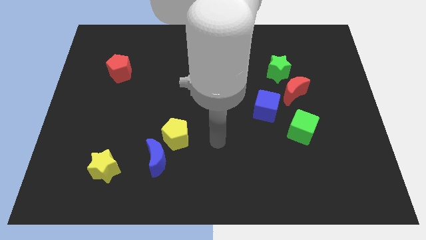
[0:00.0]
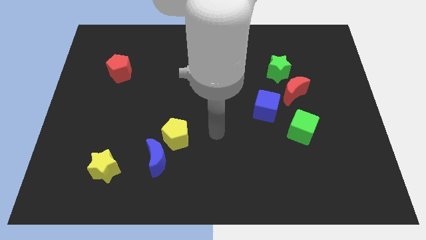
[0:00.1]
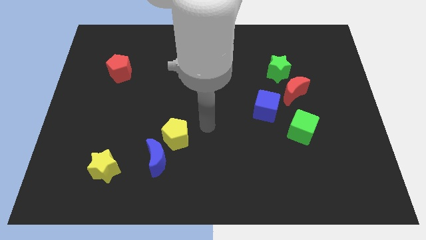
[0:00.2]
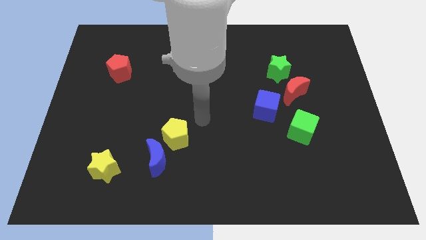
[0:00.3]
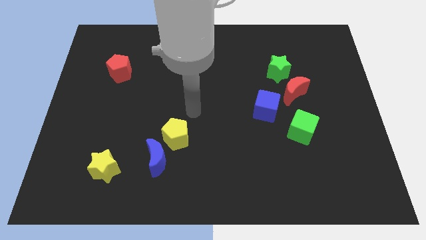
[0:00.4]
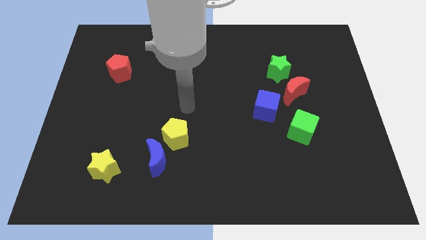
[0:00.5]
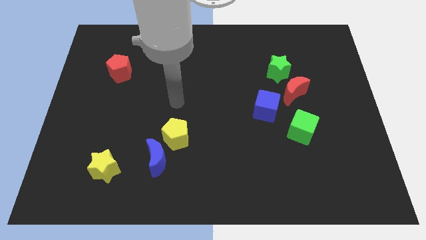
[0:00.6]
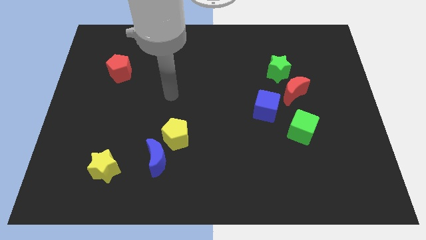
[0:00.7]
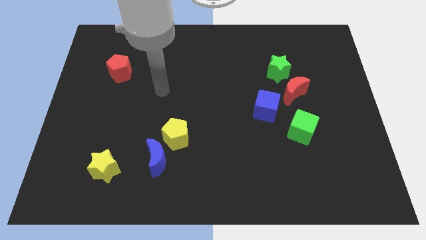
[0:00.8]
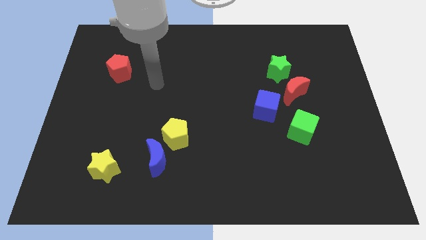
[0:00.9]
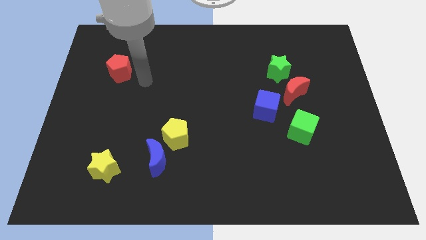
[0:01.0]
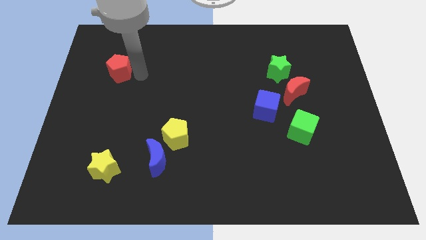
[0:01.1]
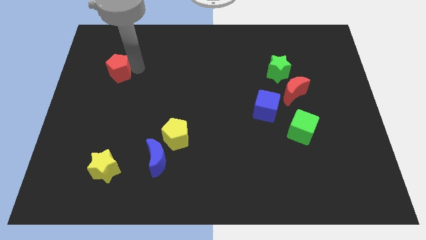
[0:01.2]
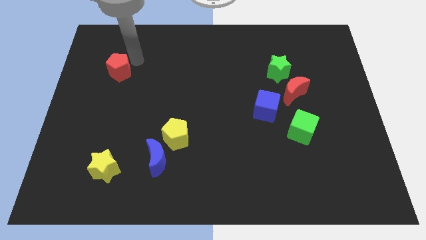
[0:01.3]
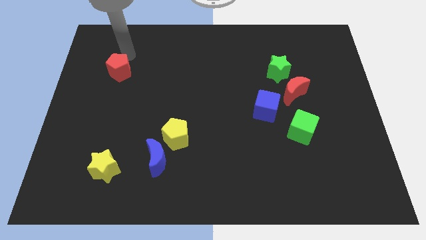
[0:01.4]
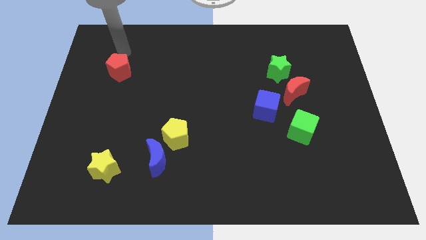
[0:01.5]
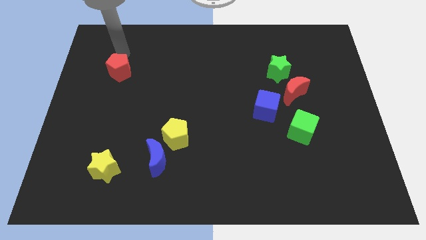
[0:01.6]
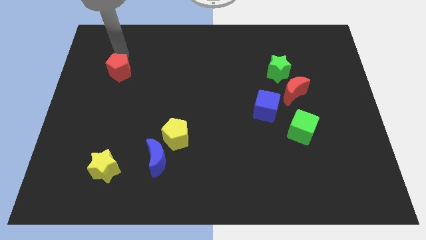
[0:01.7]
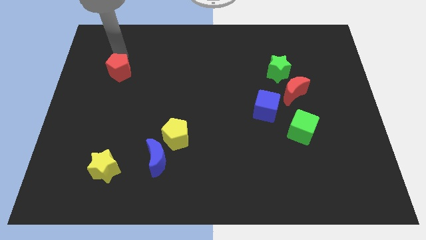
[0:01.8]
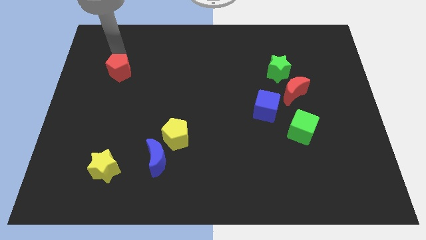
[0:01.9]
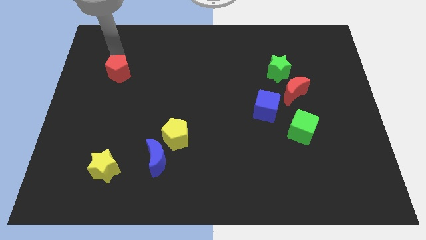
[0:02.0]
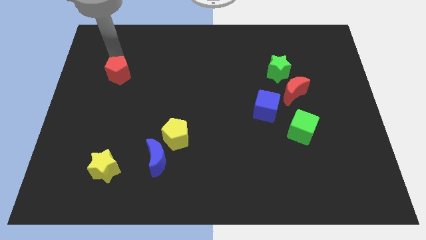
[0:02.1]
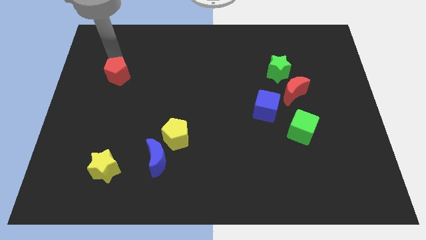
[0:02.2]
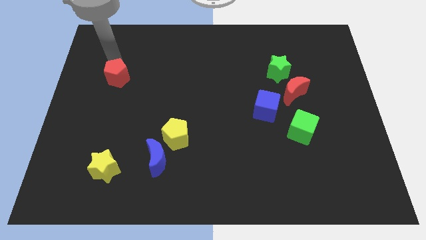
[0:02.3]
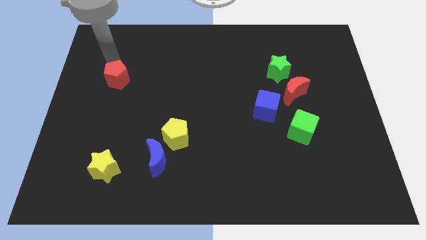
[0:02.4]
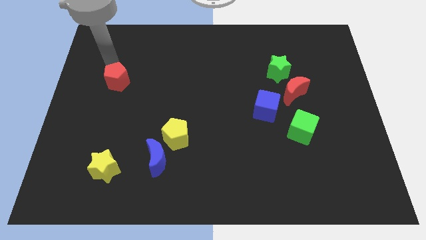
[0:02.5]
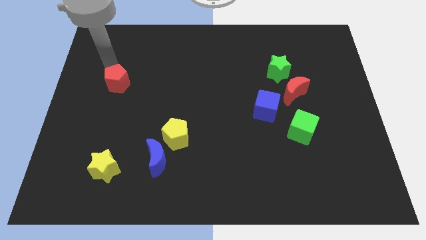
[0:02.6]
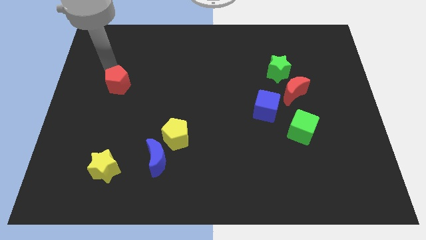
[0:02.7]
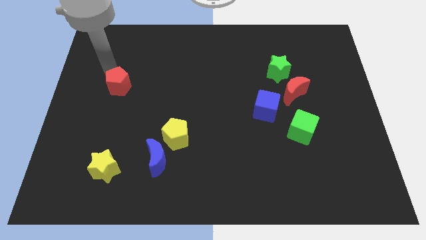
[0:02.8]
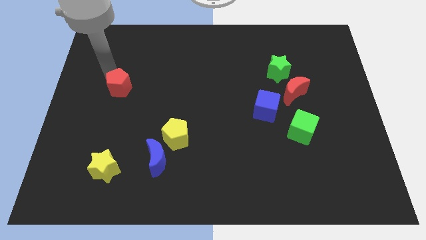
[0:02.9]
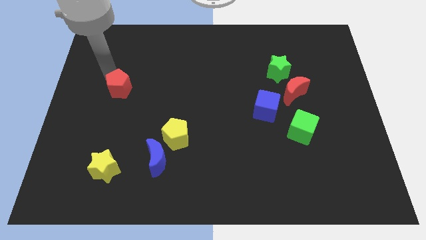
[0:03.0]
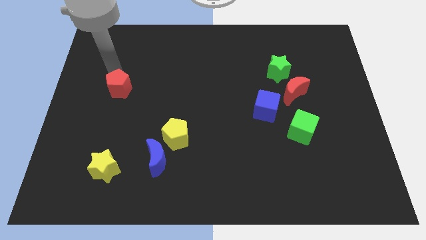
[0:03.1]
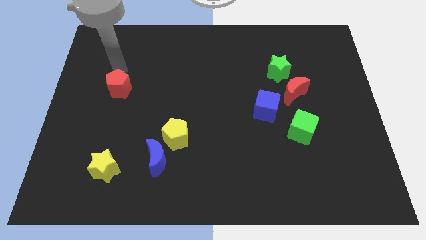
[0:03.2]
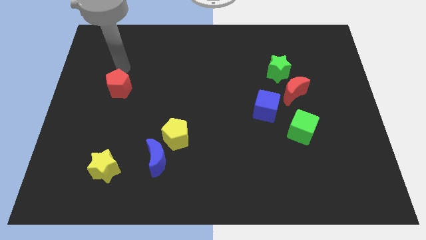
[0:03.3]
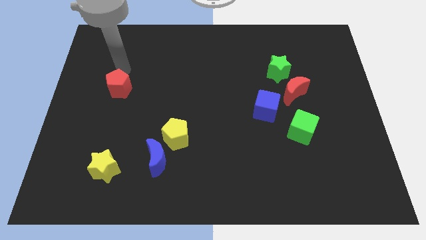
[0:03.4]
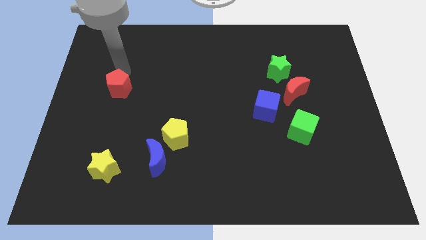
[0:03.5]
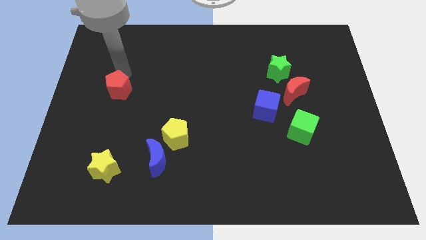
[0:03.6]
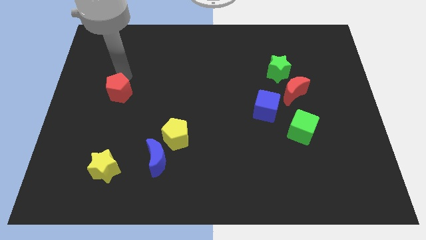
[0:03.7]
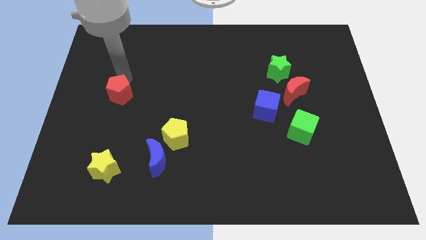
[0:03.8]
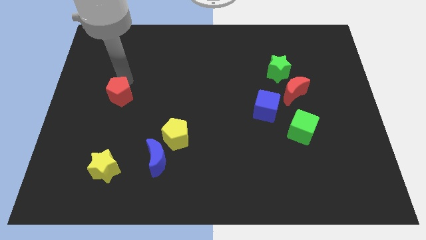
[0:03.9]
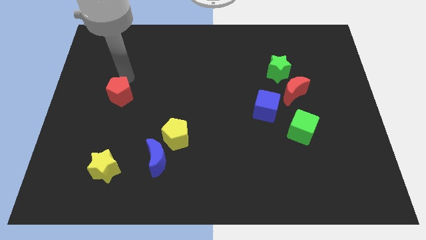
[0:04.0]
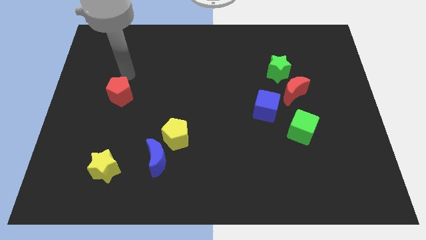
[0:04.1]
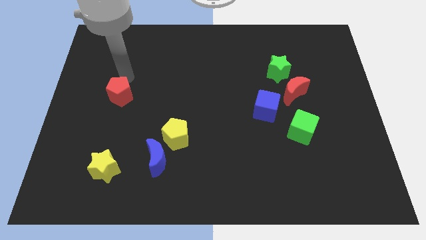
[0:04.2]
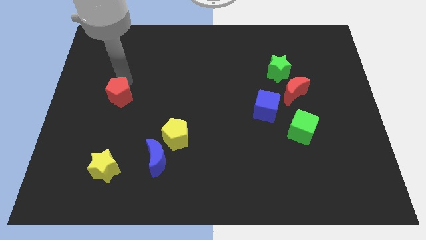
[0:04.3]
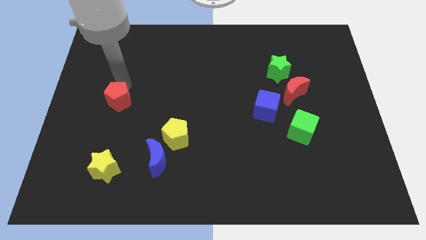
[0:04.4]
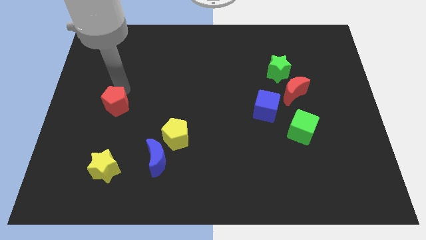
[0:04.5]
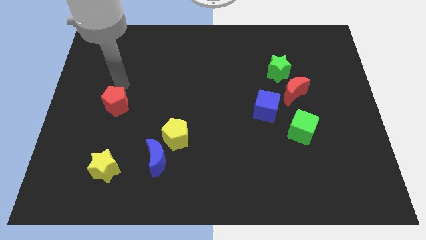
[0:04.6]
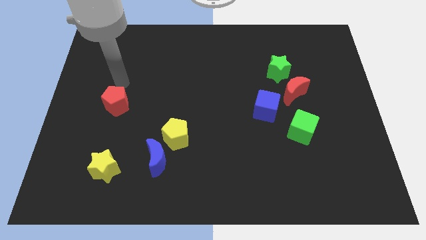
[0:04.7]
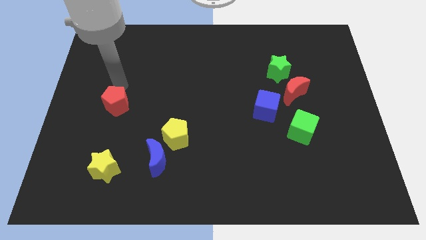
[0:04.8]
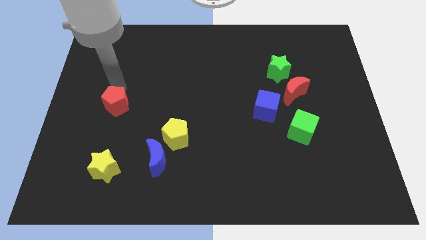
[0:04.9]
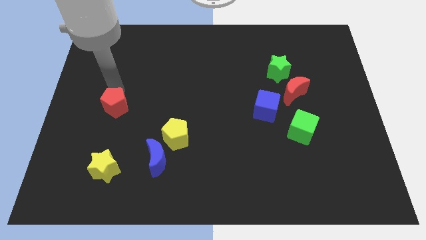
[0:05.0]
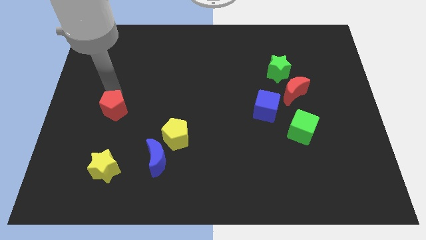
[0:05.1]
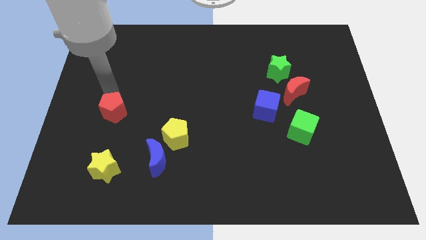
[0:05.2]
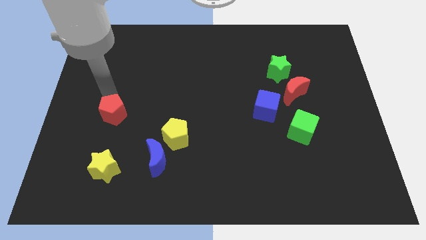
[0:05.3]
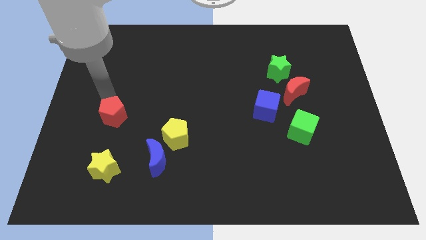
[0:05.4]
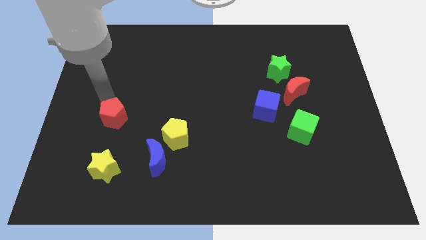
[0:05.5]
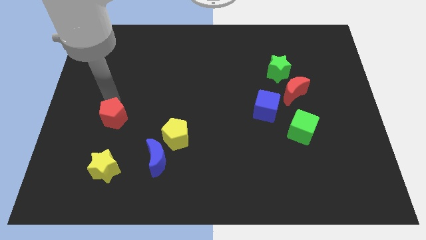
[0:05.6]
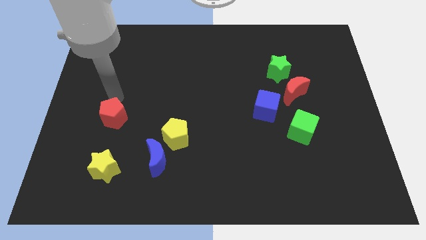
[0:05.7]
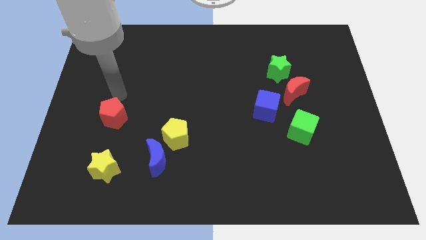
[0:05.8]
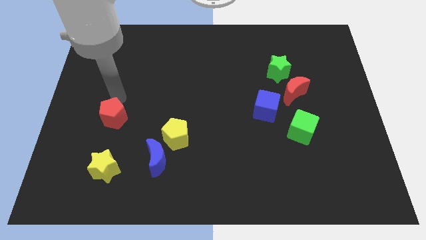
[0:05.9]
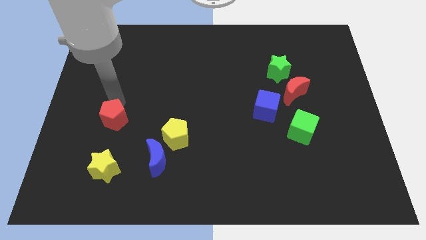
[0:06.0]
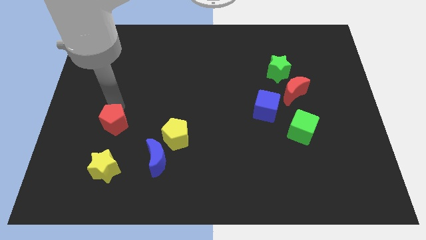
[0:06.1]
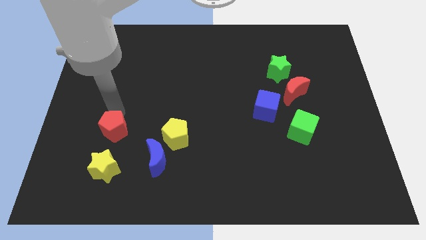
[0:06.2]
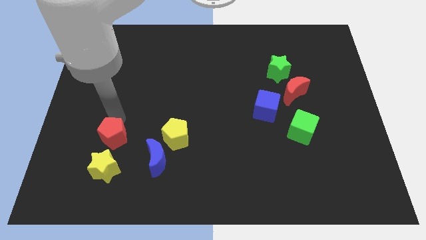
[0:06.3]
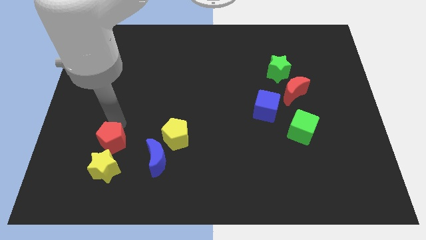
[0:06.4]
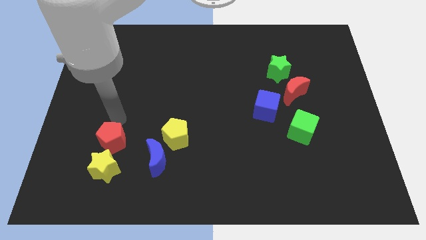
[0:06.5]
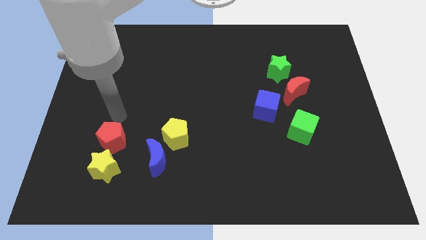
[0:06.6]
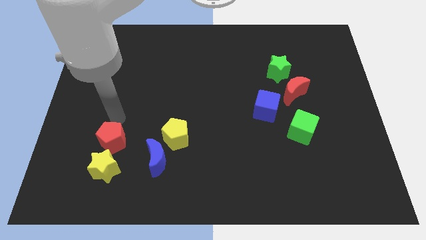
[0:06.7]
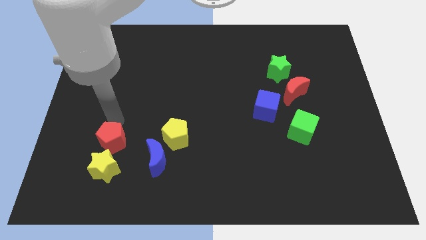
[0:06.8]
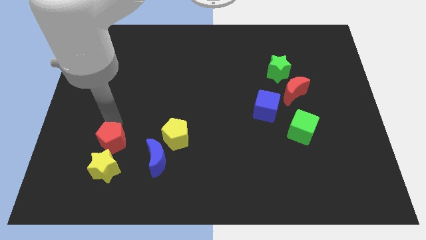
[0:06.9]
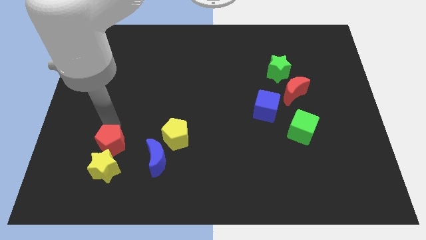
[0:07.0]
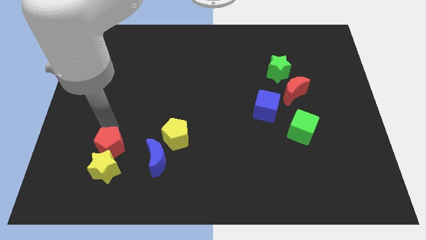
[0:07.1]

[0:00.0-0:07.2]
put the red pentagon next to the yellow star
